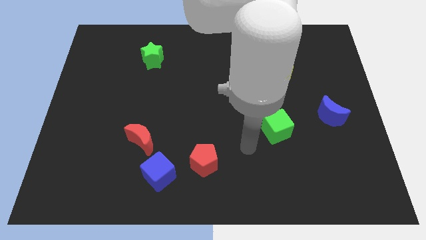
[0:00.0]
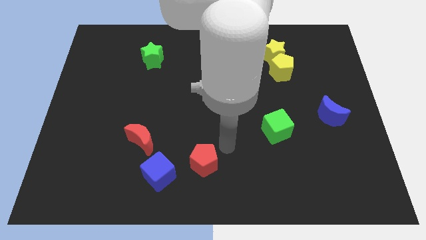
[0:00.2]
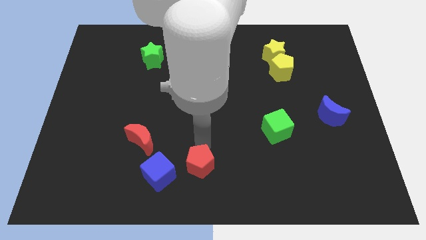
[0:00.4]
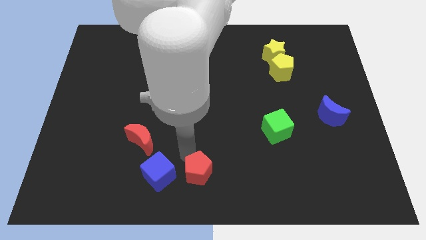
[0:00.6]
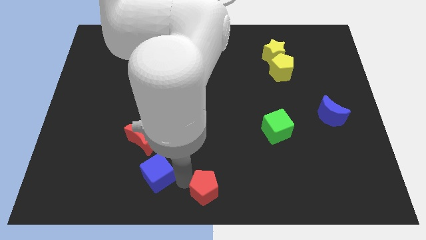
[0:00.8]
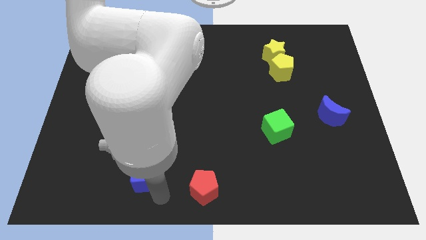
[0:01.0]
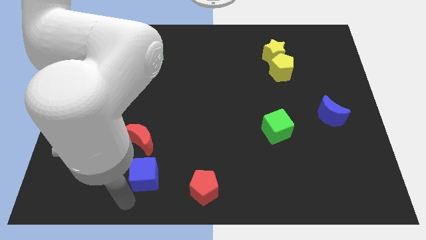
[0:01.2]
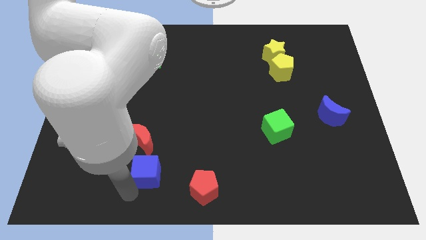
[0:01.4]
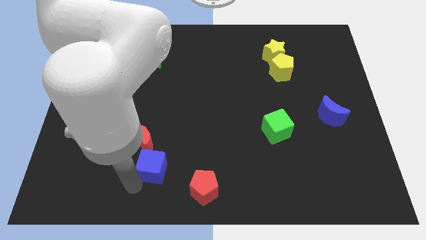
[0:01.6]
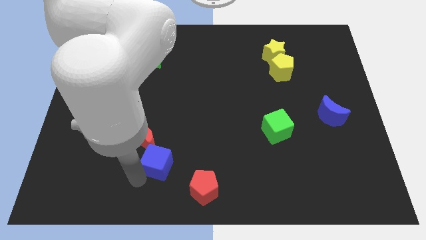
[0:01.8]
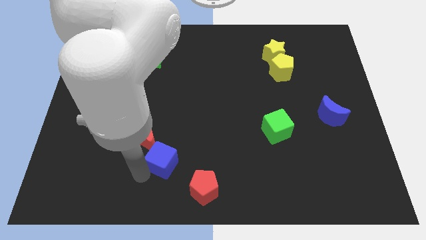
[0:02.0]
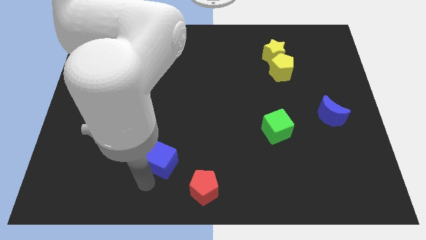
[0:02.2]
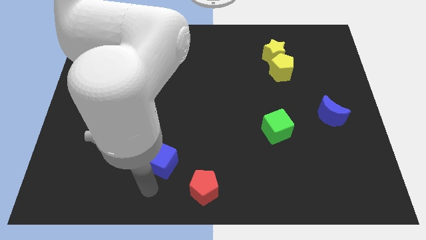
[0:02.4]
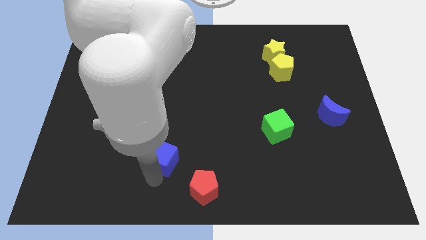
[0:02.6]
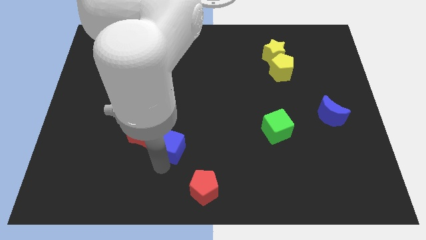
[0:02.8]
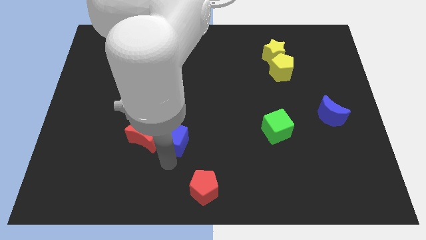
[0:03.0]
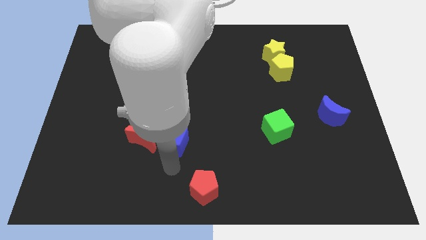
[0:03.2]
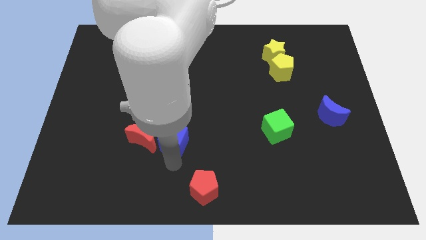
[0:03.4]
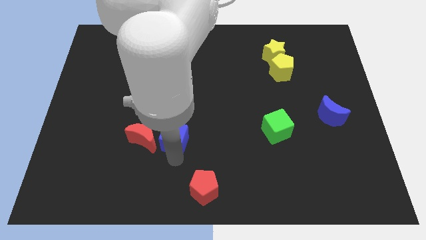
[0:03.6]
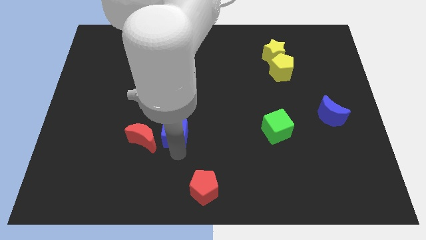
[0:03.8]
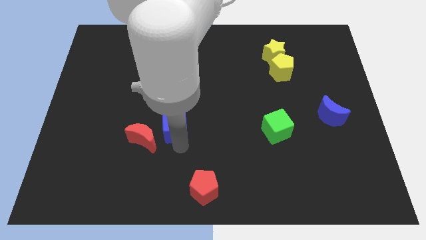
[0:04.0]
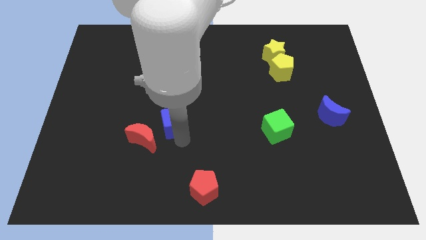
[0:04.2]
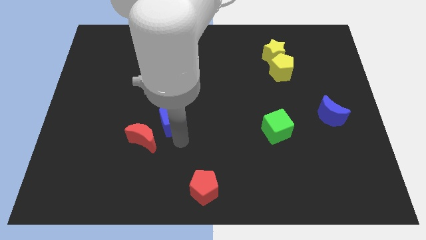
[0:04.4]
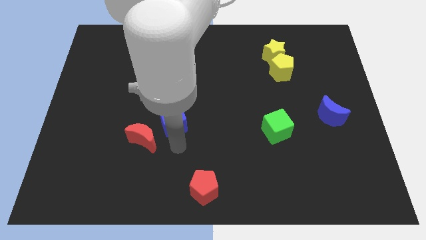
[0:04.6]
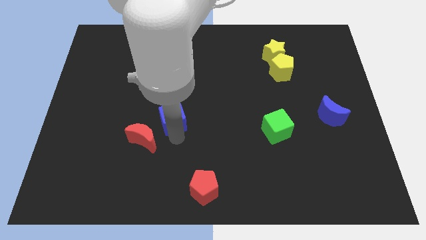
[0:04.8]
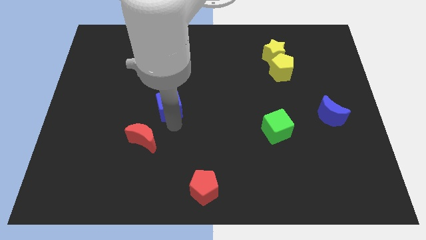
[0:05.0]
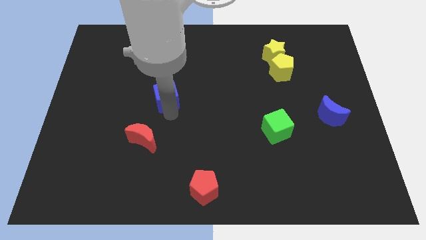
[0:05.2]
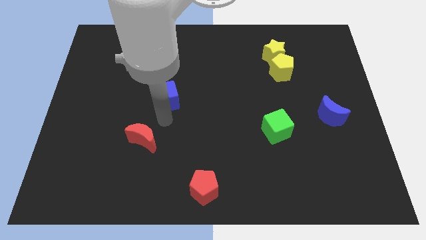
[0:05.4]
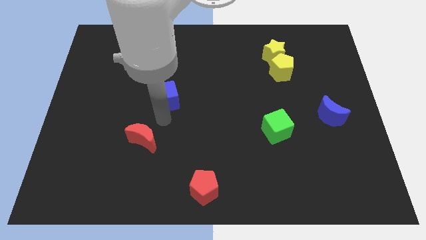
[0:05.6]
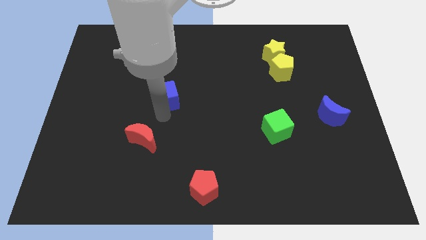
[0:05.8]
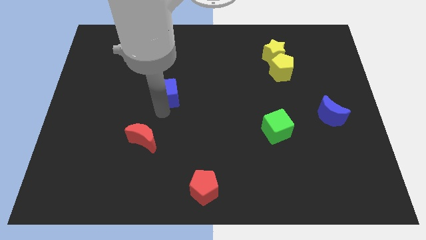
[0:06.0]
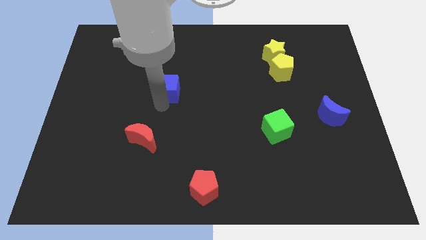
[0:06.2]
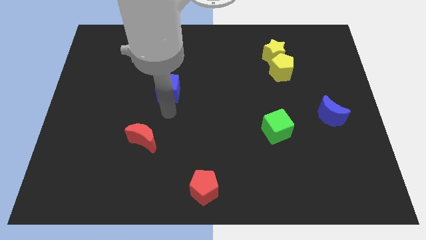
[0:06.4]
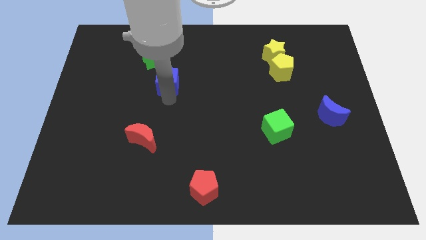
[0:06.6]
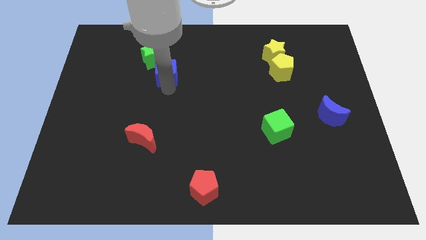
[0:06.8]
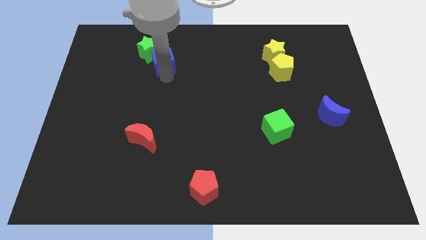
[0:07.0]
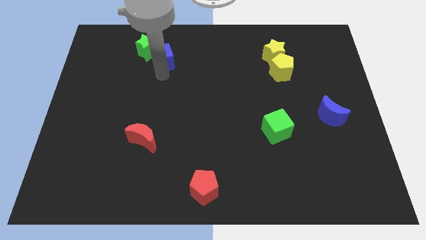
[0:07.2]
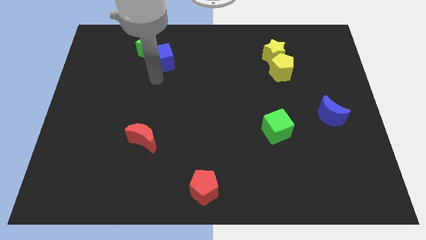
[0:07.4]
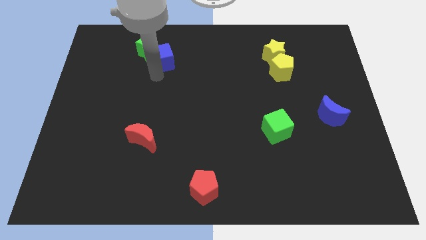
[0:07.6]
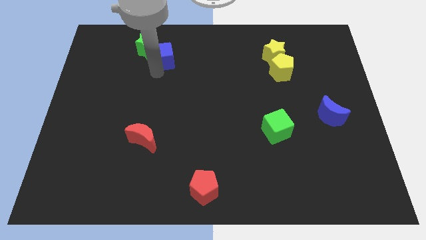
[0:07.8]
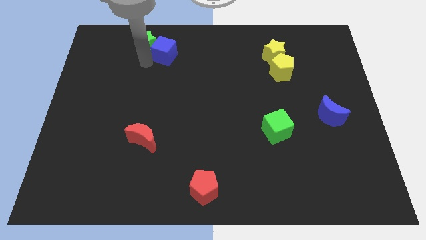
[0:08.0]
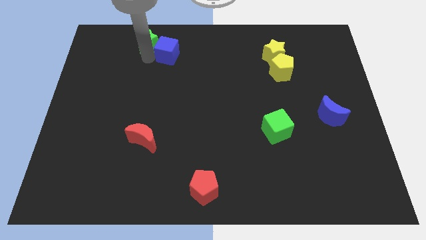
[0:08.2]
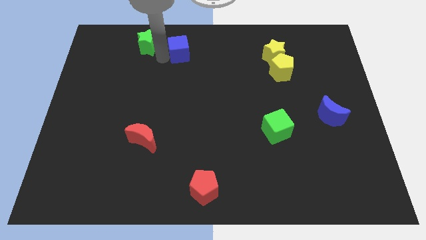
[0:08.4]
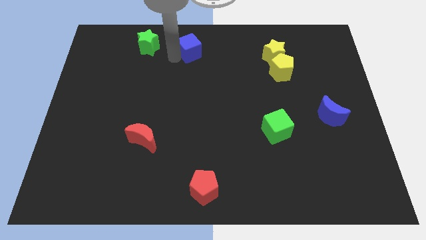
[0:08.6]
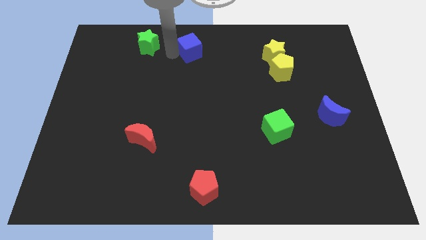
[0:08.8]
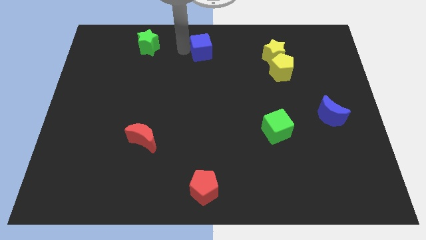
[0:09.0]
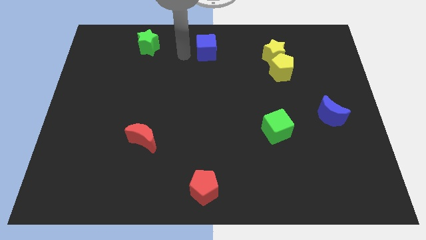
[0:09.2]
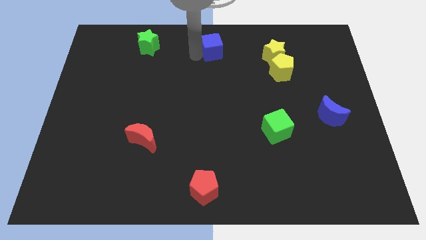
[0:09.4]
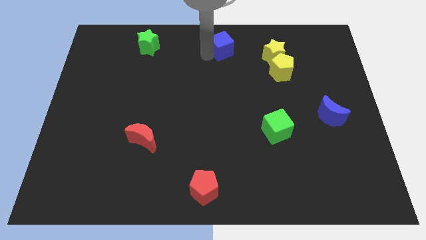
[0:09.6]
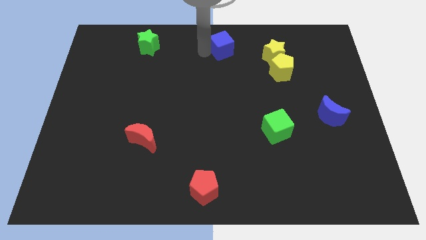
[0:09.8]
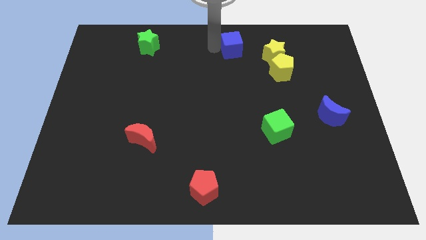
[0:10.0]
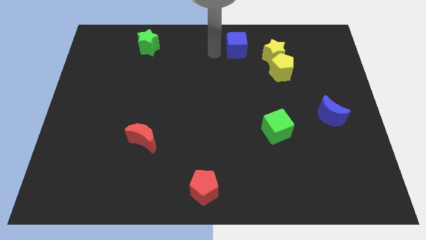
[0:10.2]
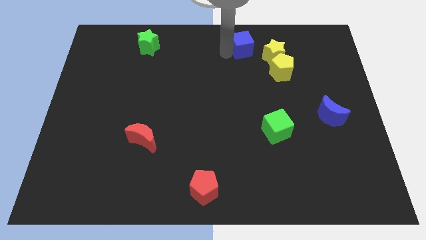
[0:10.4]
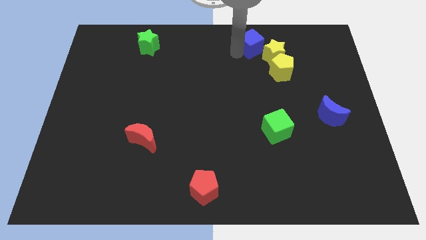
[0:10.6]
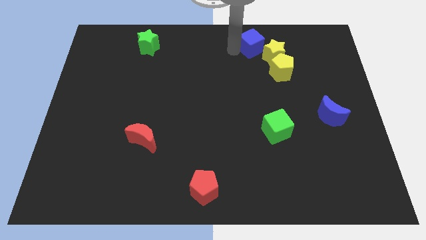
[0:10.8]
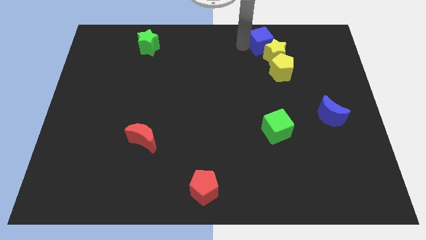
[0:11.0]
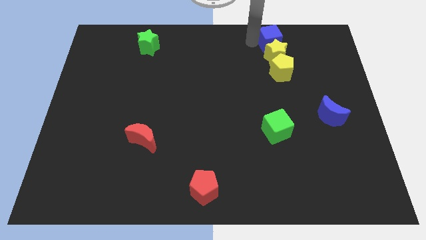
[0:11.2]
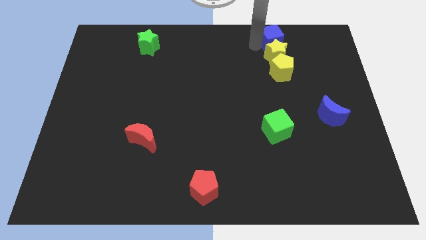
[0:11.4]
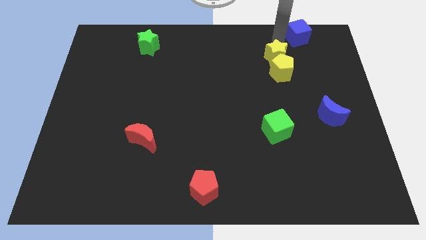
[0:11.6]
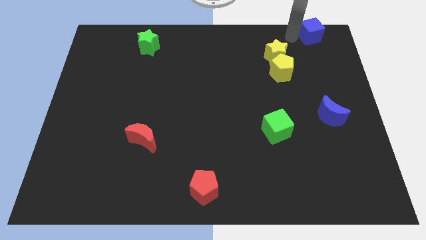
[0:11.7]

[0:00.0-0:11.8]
move the blue cube to the top right of the board
